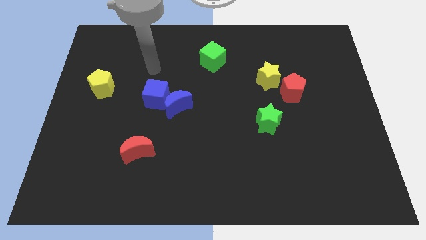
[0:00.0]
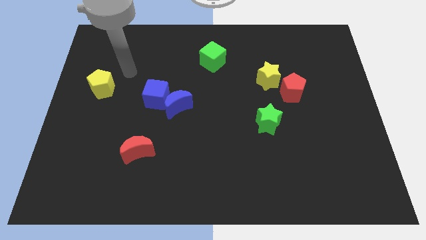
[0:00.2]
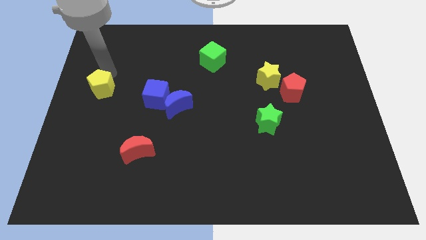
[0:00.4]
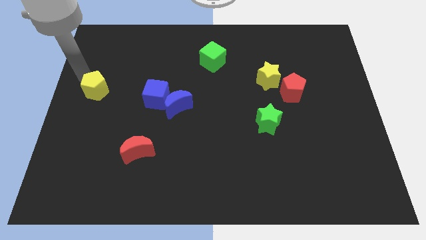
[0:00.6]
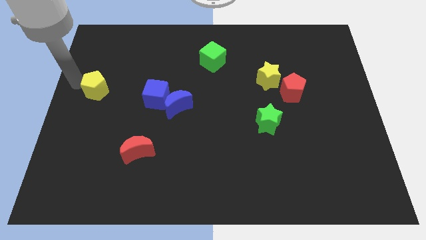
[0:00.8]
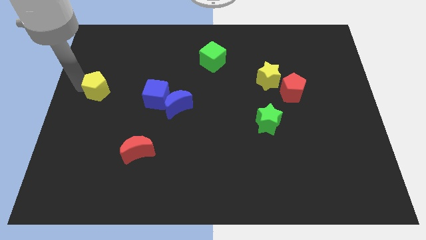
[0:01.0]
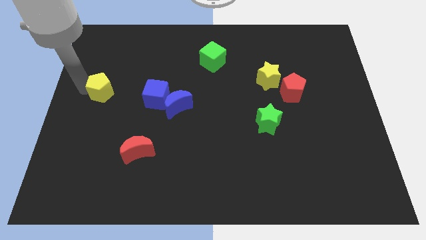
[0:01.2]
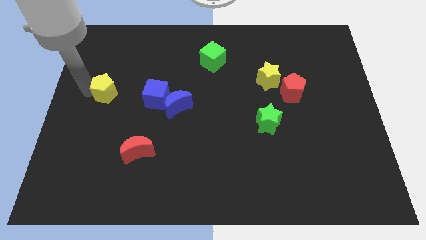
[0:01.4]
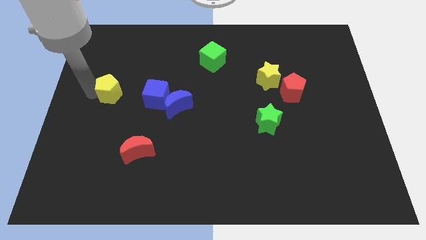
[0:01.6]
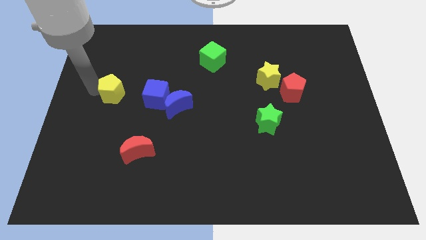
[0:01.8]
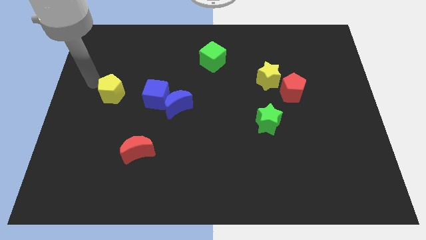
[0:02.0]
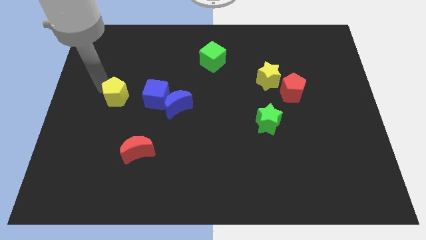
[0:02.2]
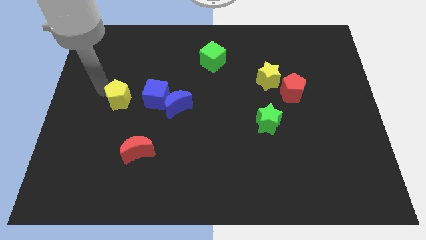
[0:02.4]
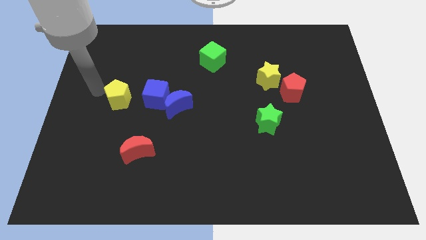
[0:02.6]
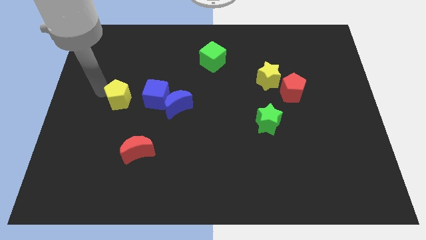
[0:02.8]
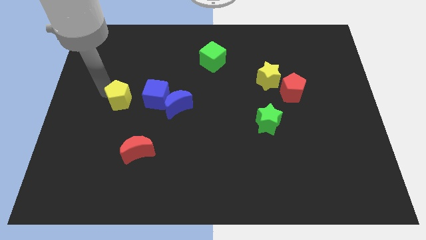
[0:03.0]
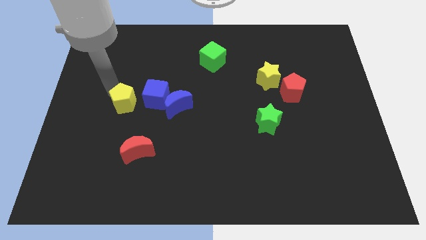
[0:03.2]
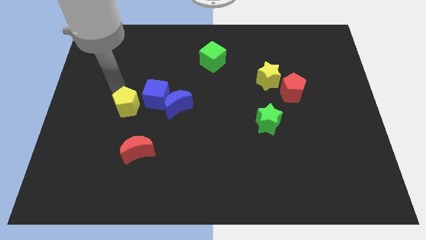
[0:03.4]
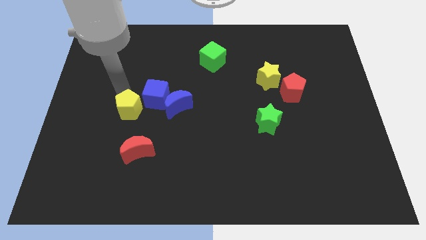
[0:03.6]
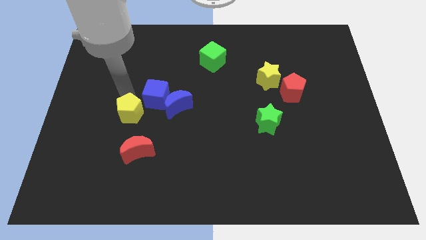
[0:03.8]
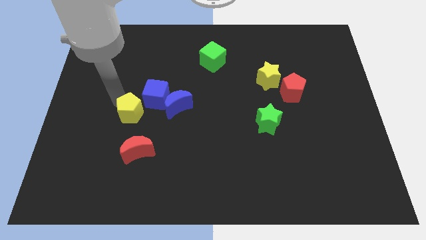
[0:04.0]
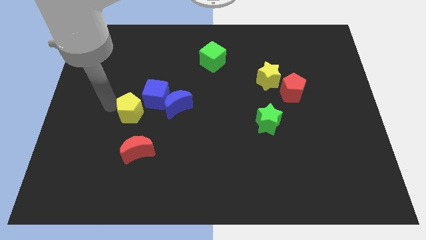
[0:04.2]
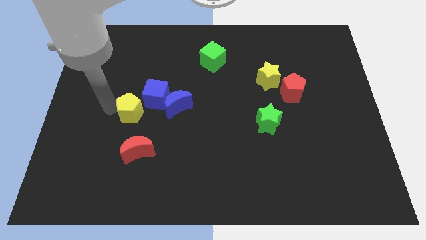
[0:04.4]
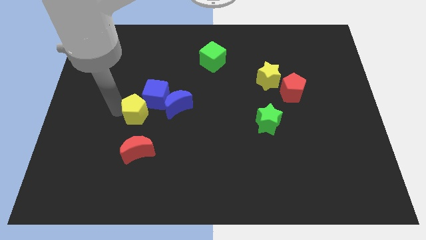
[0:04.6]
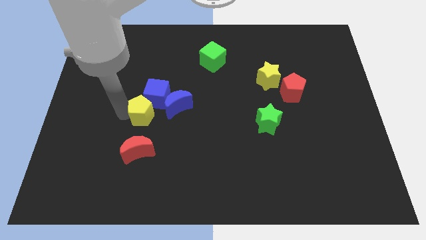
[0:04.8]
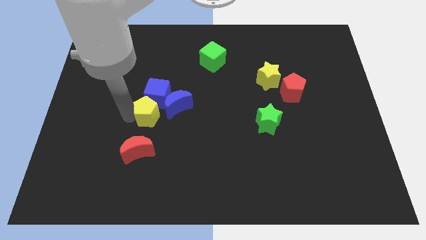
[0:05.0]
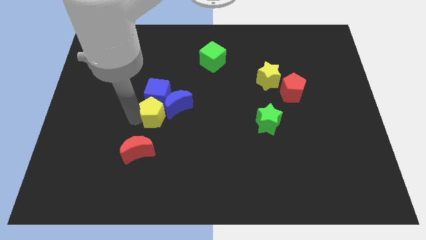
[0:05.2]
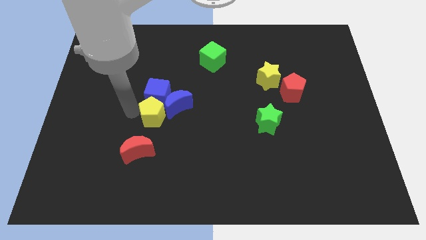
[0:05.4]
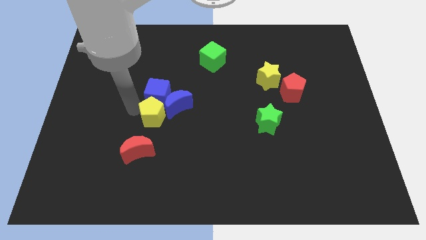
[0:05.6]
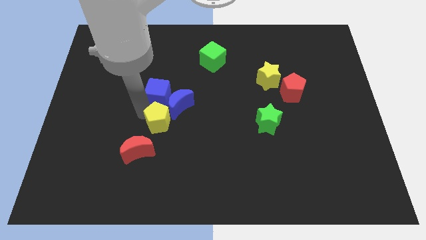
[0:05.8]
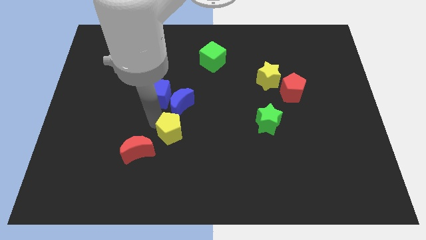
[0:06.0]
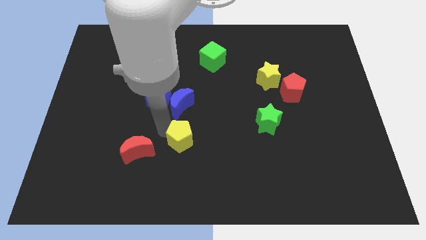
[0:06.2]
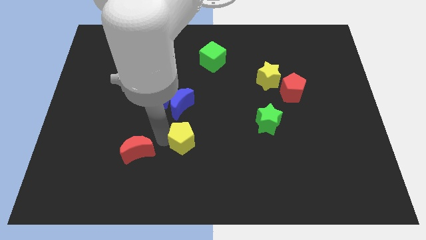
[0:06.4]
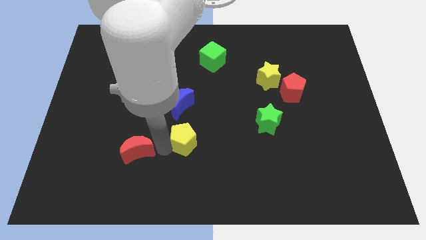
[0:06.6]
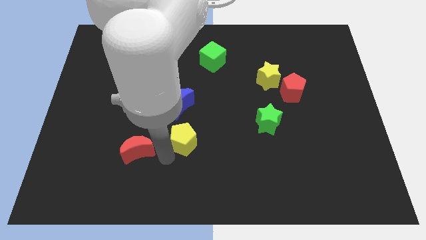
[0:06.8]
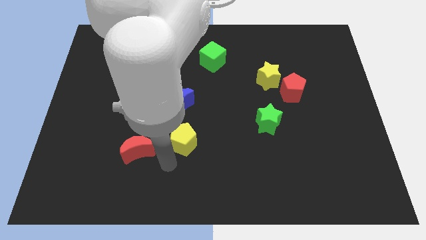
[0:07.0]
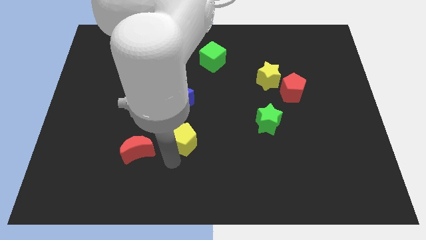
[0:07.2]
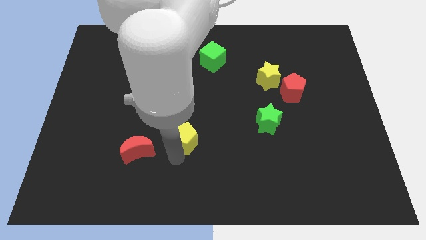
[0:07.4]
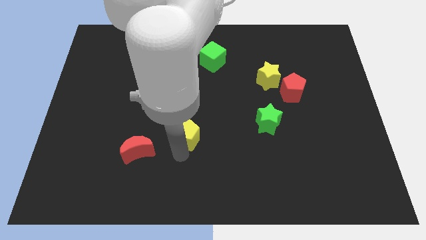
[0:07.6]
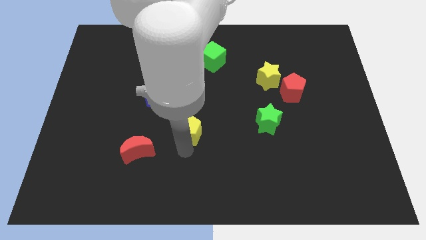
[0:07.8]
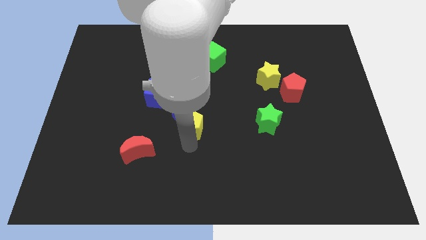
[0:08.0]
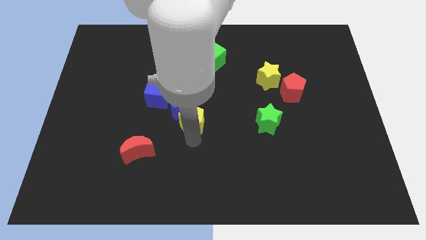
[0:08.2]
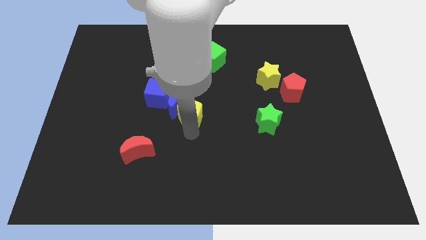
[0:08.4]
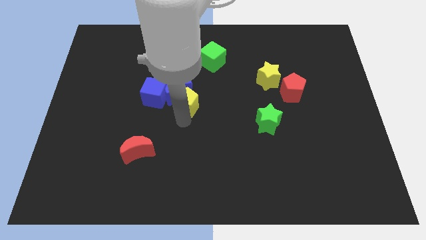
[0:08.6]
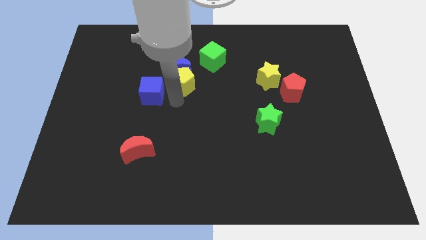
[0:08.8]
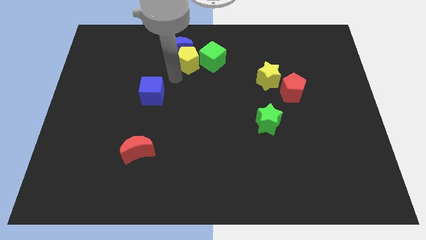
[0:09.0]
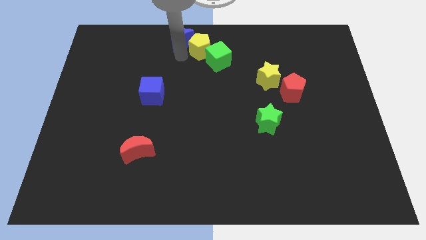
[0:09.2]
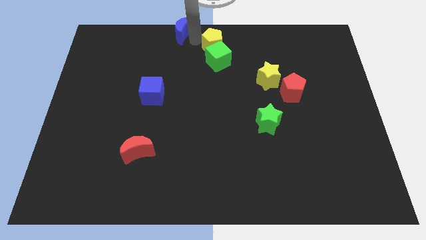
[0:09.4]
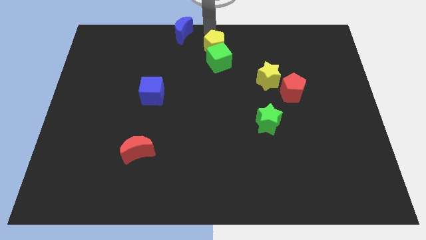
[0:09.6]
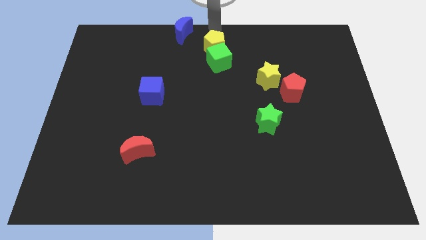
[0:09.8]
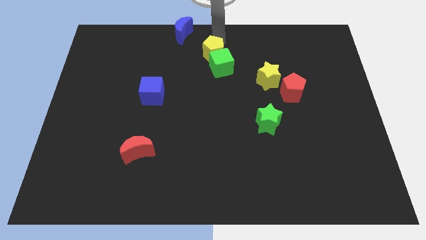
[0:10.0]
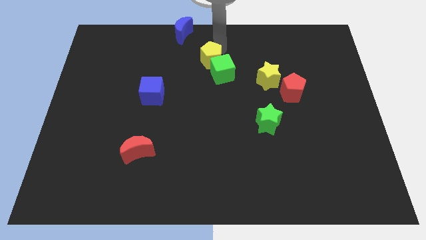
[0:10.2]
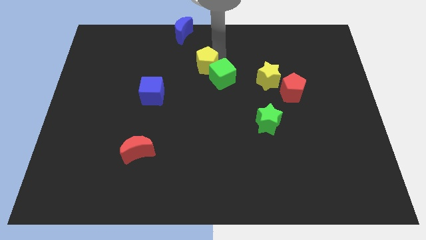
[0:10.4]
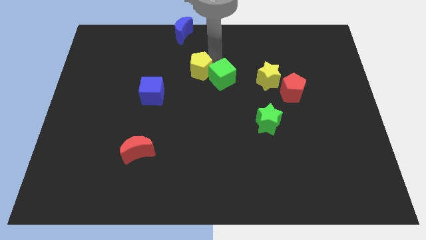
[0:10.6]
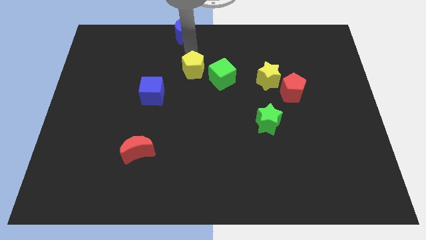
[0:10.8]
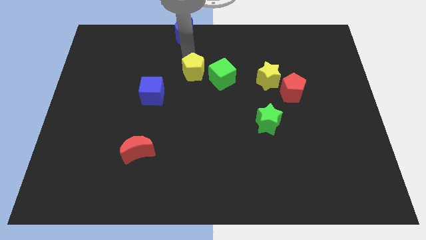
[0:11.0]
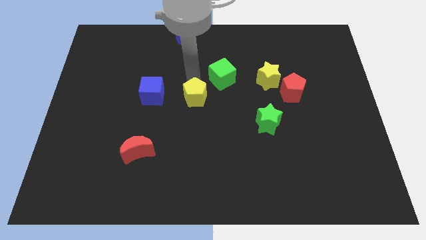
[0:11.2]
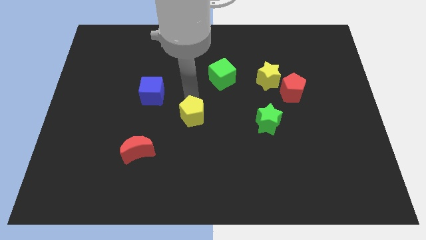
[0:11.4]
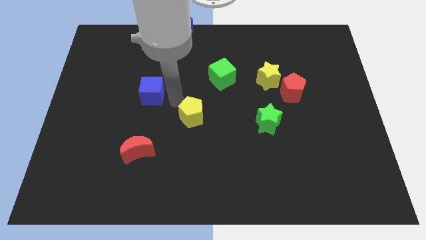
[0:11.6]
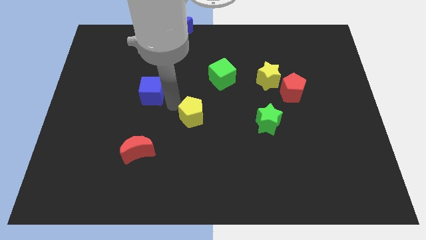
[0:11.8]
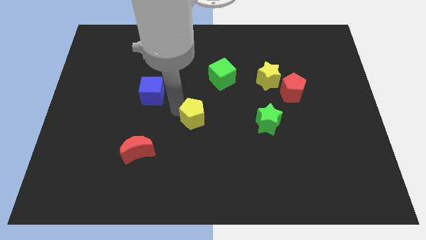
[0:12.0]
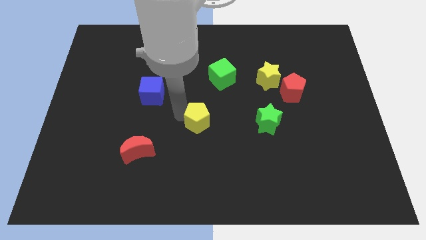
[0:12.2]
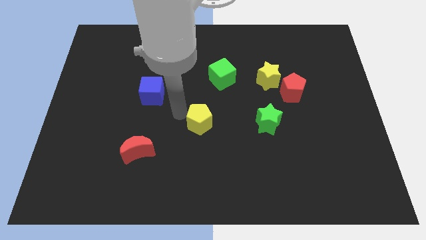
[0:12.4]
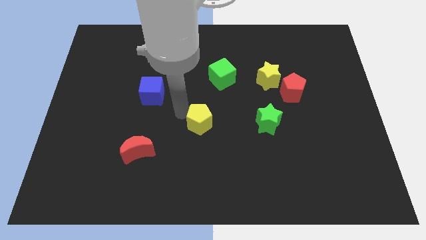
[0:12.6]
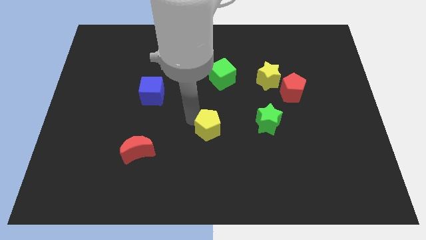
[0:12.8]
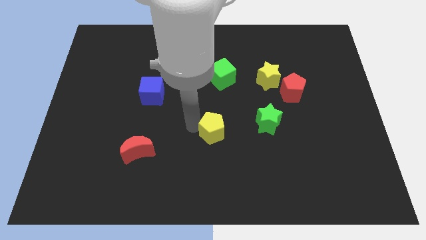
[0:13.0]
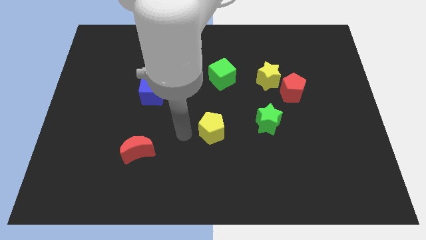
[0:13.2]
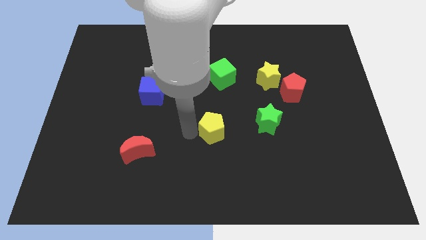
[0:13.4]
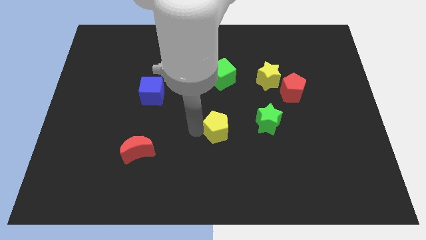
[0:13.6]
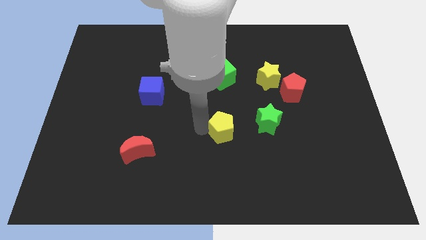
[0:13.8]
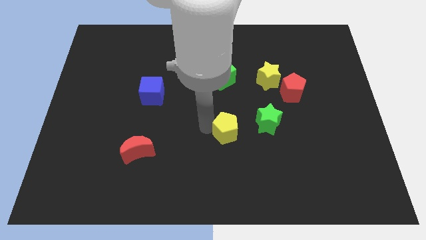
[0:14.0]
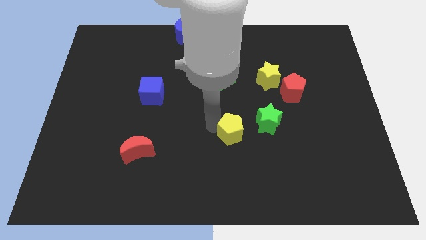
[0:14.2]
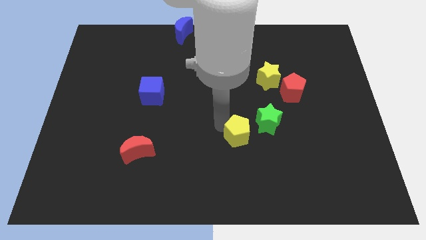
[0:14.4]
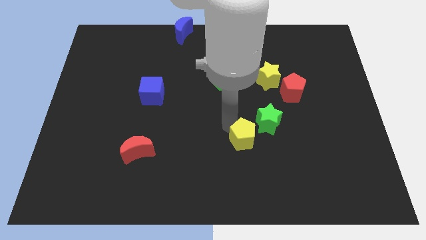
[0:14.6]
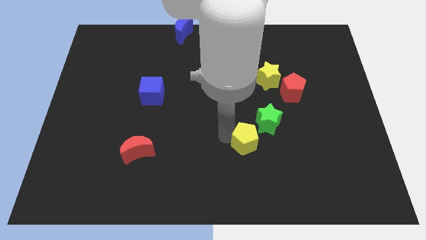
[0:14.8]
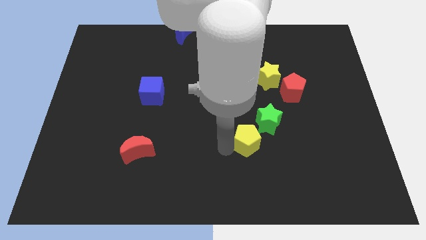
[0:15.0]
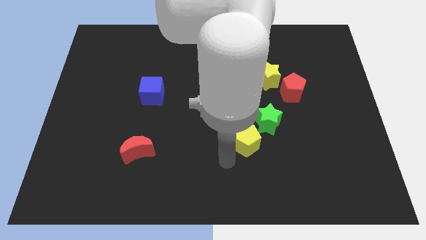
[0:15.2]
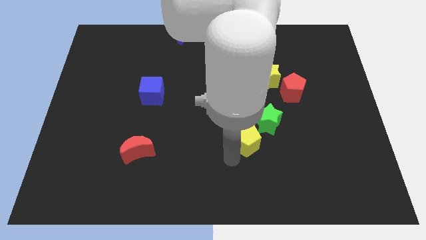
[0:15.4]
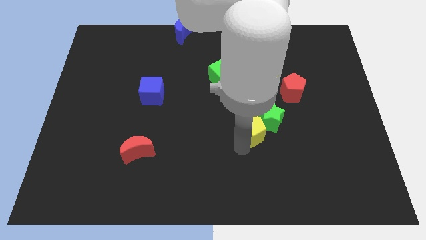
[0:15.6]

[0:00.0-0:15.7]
slide the yellow pentagon to the green star

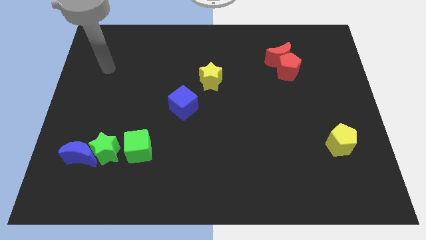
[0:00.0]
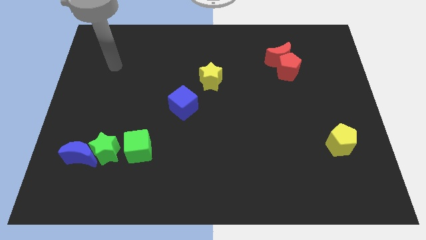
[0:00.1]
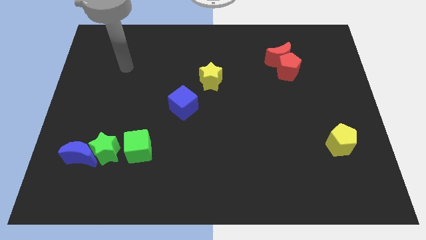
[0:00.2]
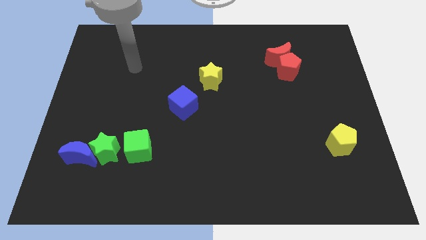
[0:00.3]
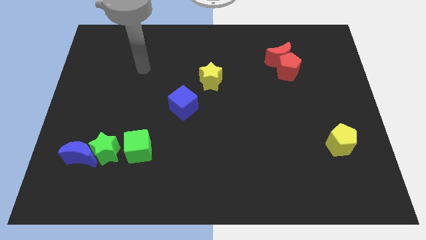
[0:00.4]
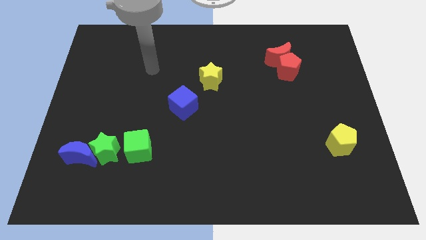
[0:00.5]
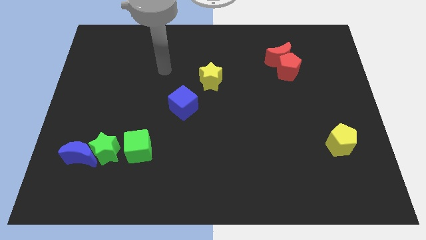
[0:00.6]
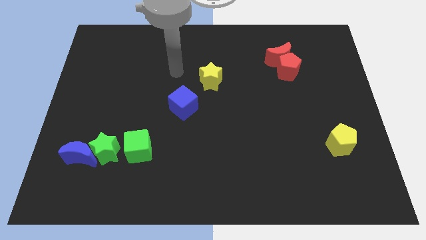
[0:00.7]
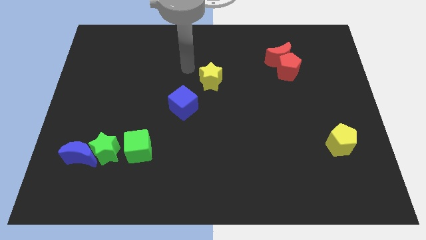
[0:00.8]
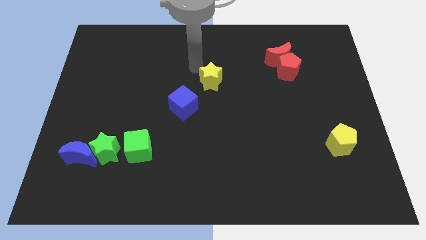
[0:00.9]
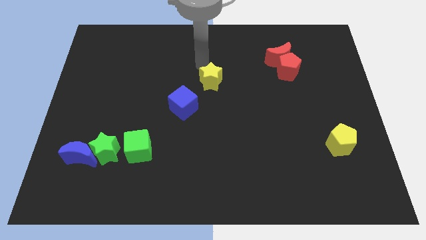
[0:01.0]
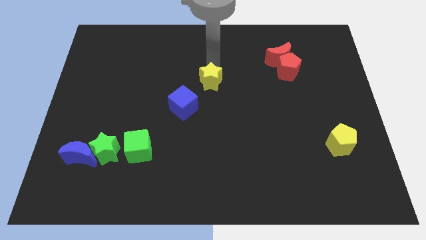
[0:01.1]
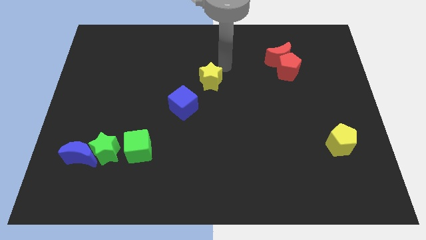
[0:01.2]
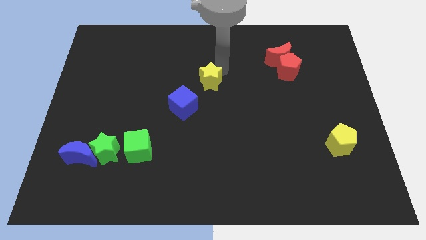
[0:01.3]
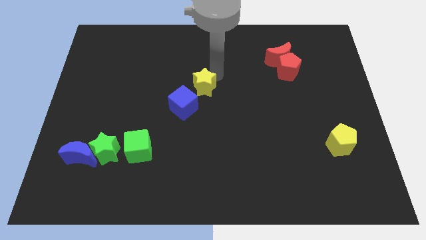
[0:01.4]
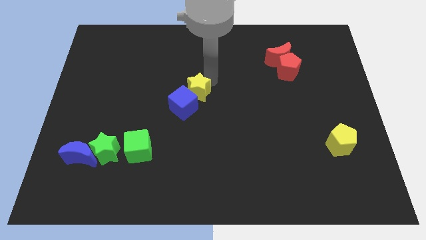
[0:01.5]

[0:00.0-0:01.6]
push the yellow star next to the blue cube
